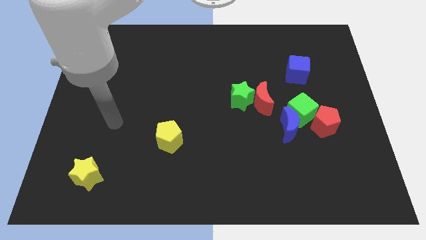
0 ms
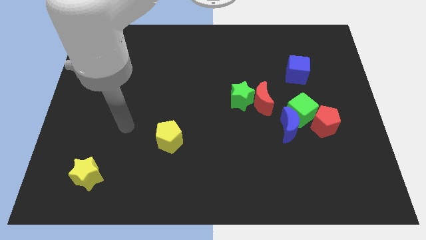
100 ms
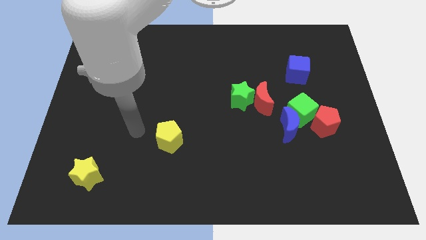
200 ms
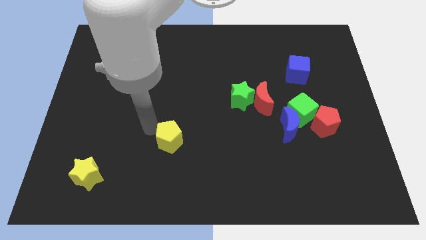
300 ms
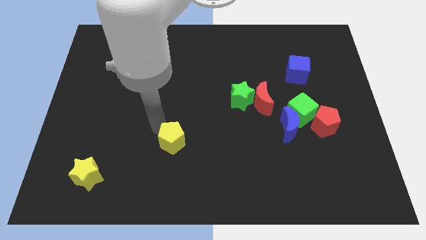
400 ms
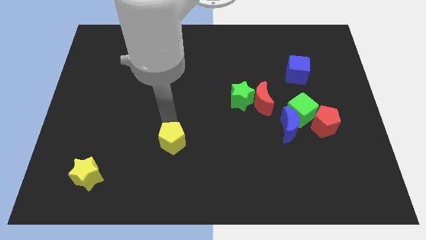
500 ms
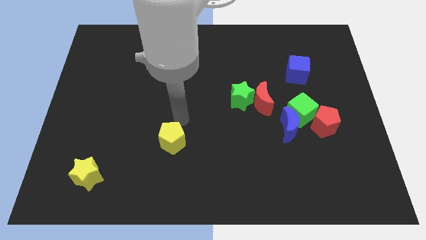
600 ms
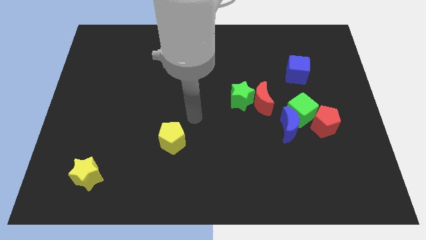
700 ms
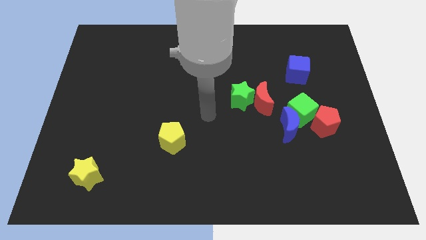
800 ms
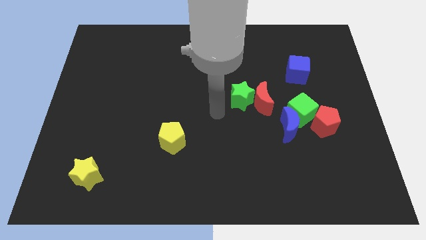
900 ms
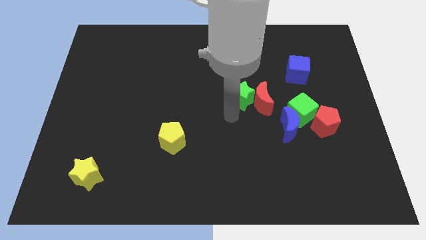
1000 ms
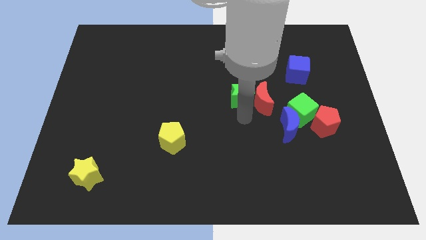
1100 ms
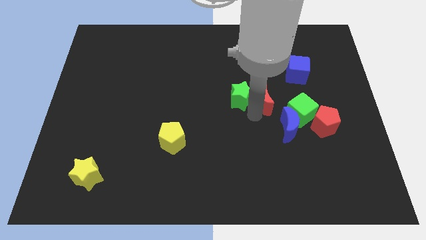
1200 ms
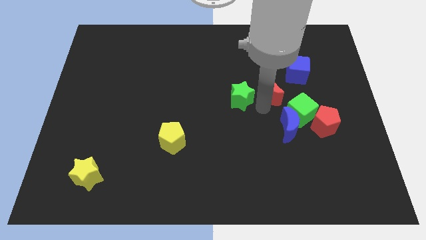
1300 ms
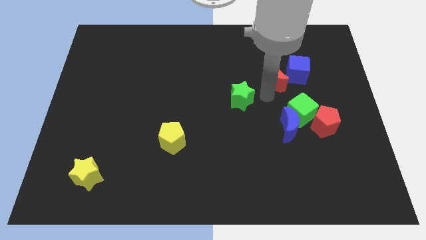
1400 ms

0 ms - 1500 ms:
pull the green star apart from the red moon

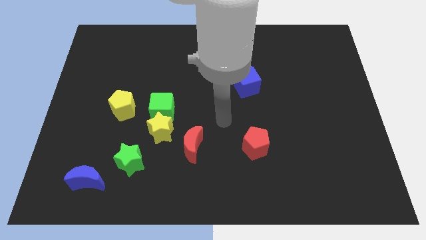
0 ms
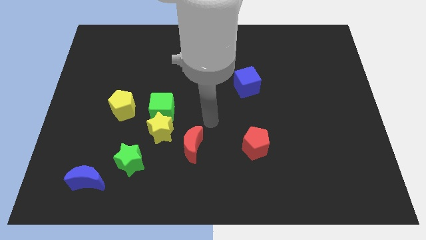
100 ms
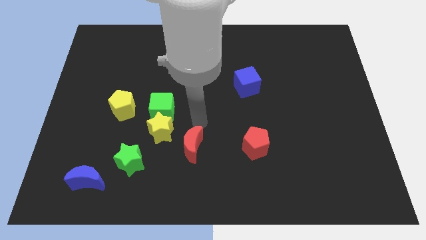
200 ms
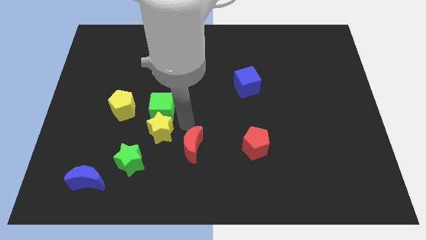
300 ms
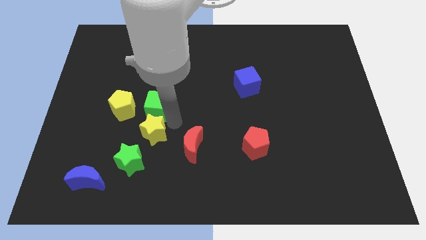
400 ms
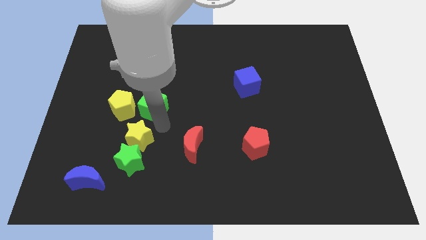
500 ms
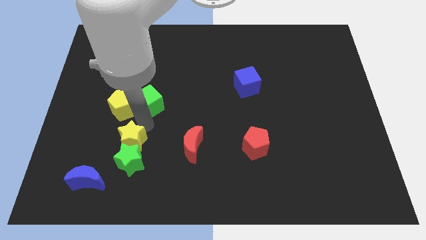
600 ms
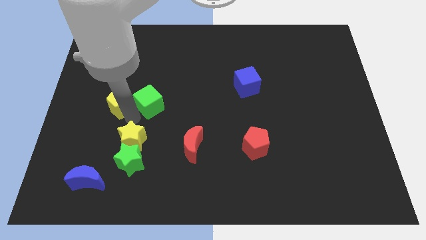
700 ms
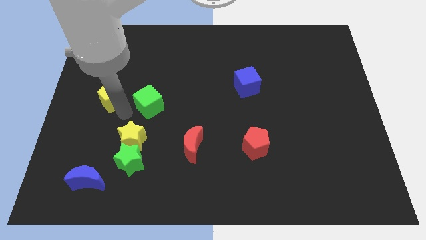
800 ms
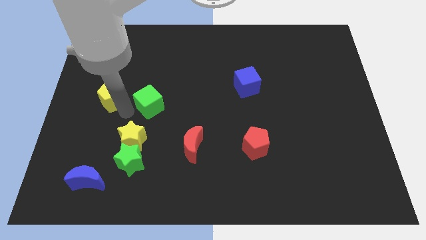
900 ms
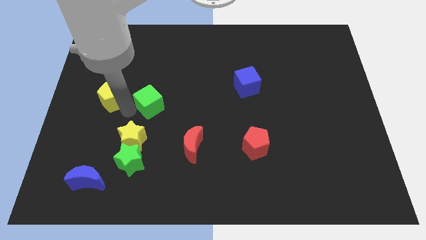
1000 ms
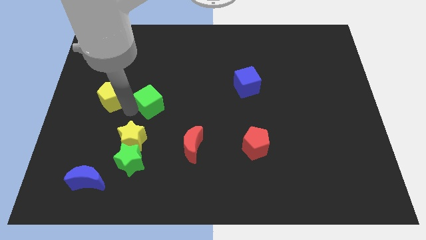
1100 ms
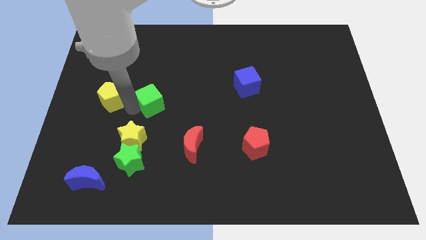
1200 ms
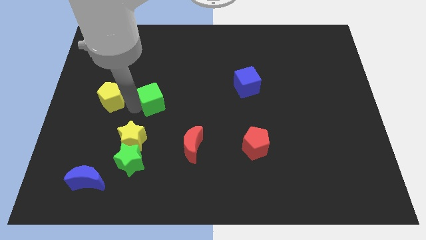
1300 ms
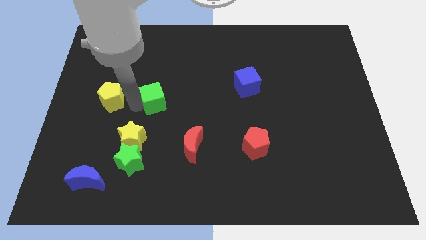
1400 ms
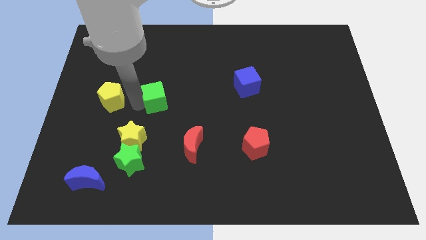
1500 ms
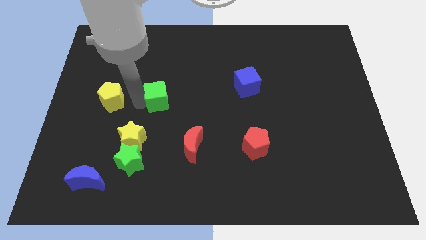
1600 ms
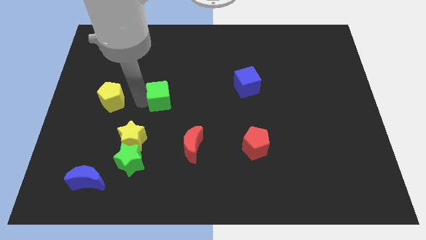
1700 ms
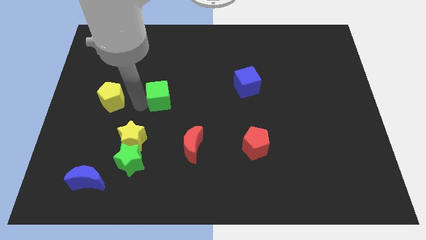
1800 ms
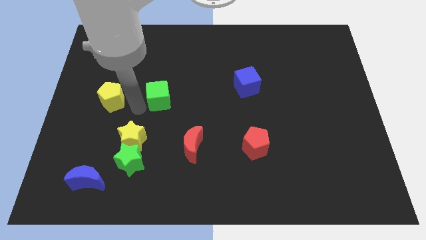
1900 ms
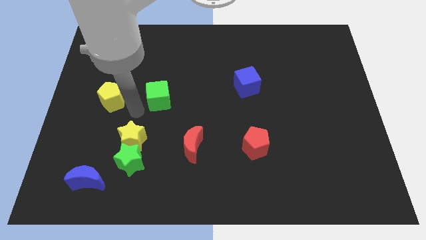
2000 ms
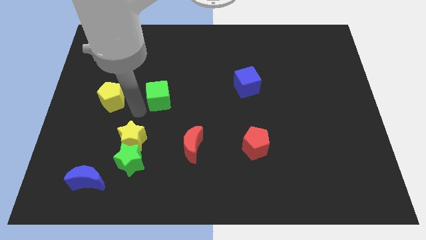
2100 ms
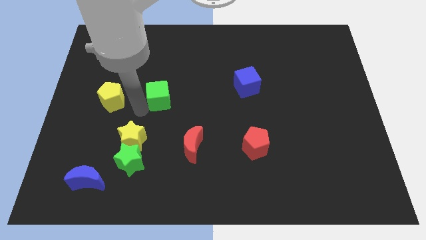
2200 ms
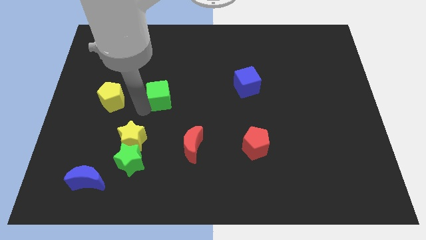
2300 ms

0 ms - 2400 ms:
move the green cube away from the yellow star and yellow pentagon

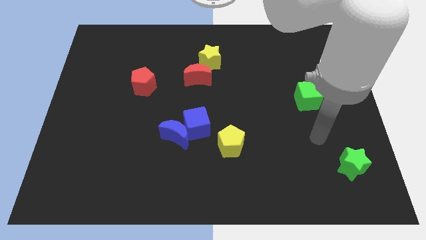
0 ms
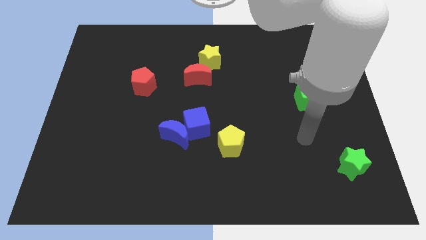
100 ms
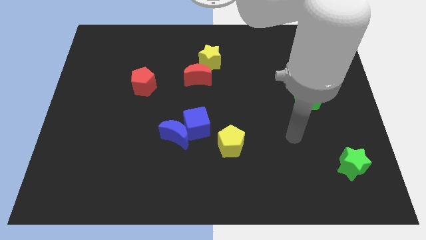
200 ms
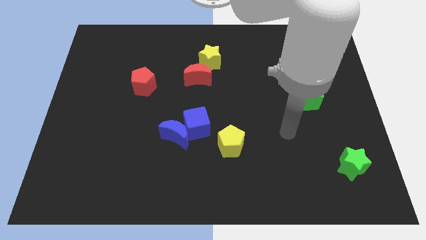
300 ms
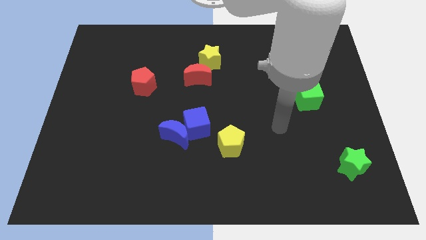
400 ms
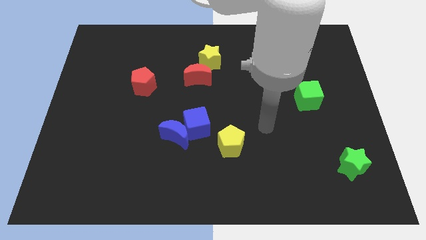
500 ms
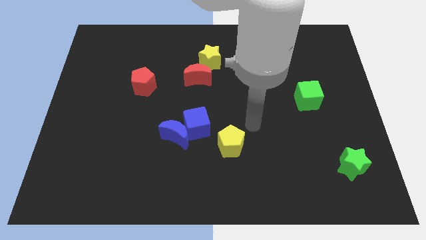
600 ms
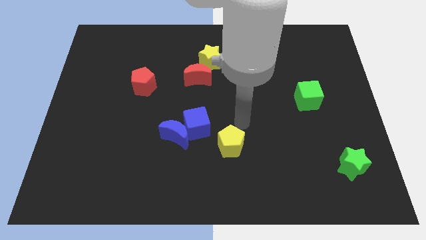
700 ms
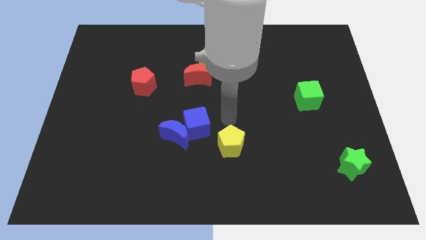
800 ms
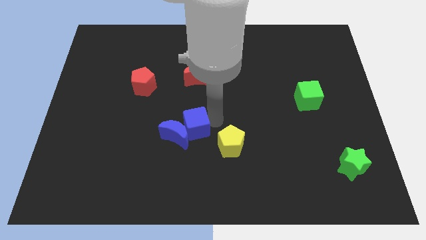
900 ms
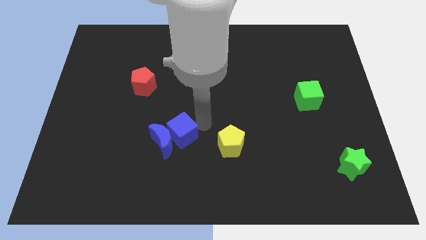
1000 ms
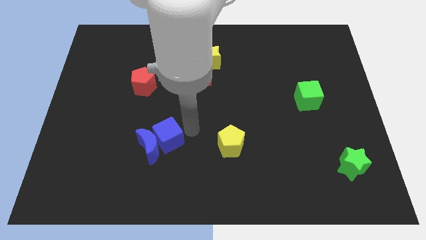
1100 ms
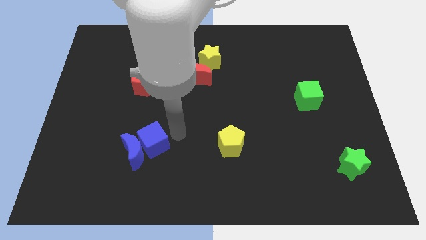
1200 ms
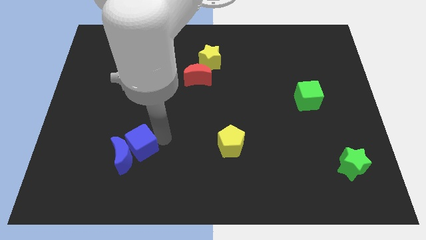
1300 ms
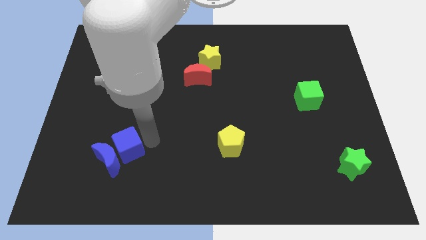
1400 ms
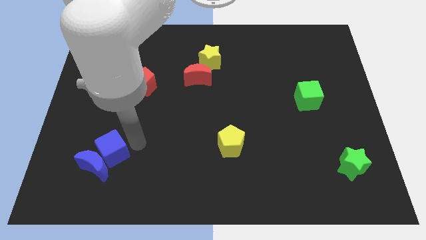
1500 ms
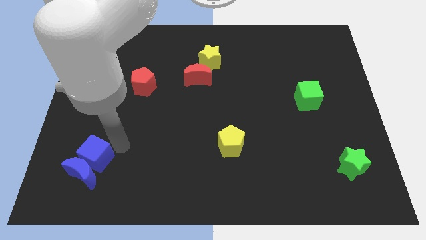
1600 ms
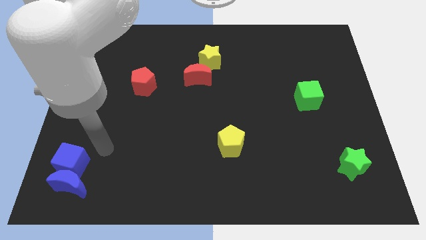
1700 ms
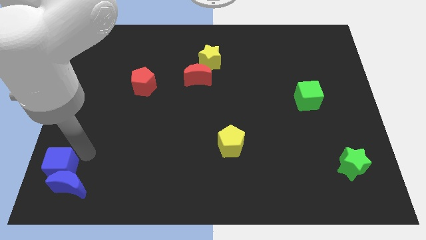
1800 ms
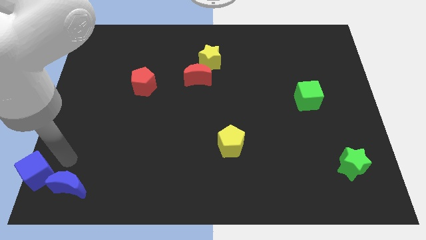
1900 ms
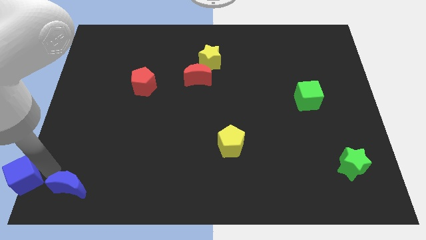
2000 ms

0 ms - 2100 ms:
separate the blue moon from the blue cube

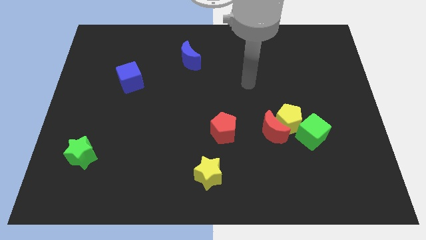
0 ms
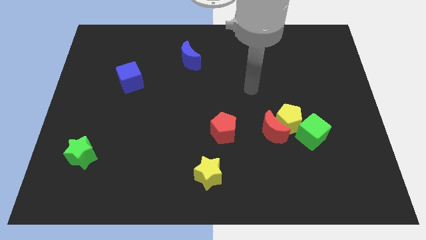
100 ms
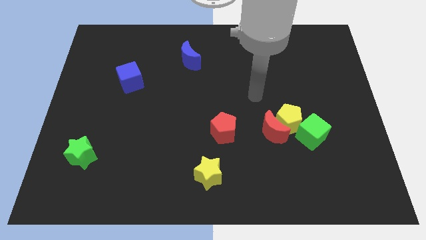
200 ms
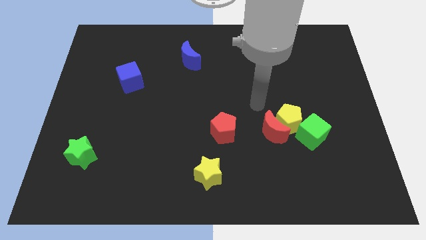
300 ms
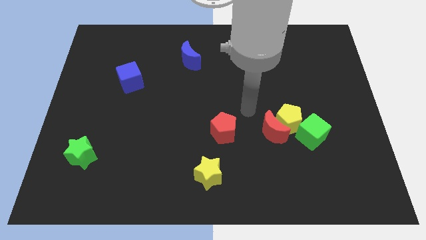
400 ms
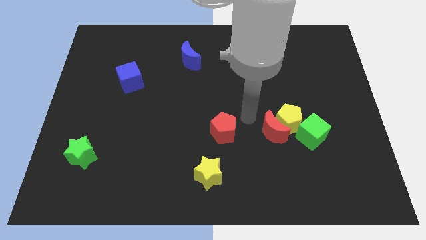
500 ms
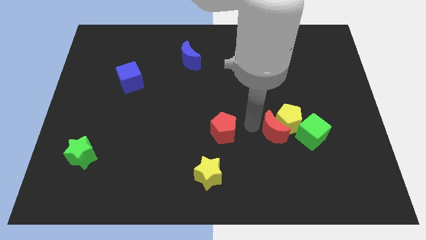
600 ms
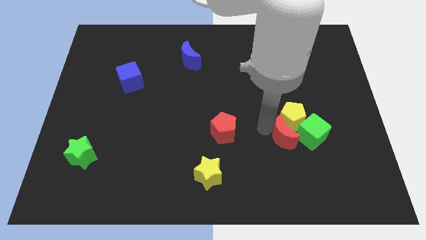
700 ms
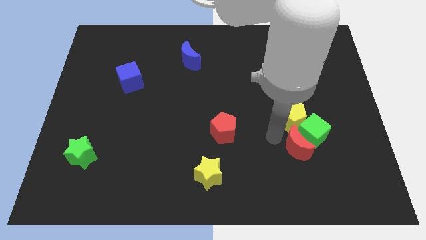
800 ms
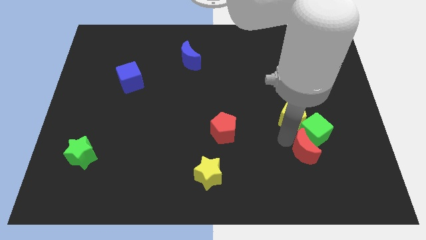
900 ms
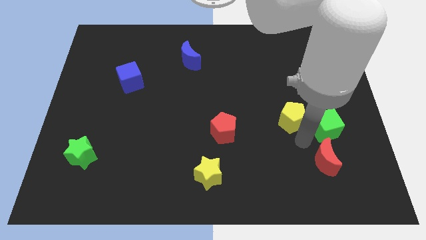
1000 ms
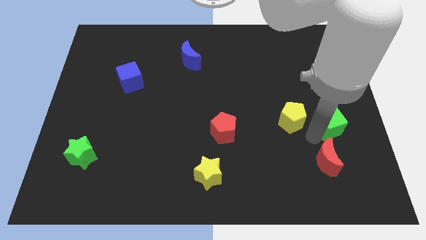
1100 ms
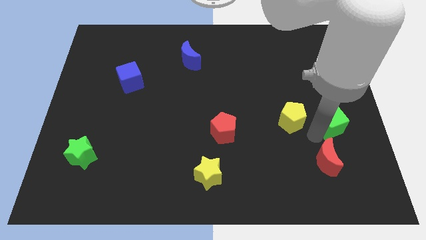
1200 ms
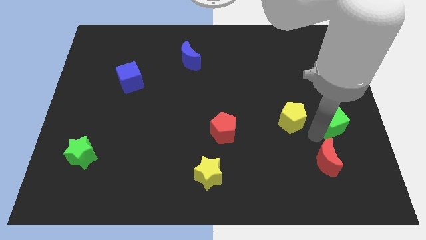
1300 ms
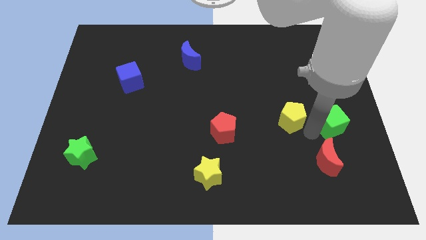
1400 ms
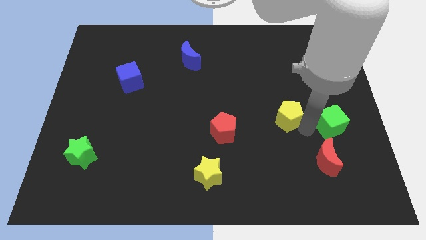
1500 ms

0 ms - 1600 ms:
pull the yellow pentagon apart from the red moon and green cube

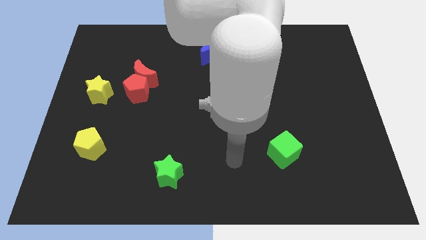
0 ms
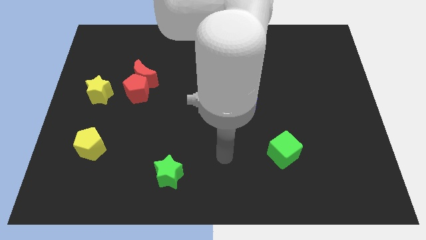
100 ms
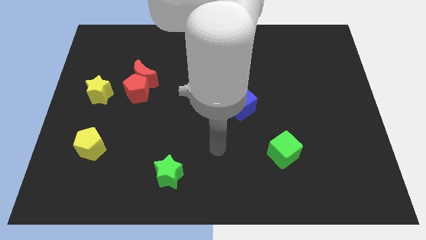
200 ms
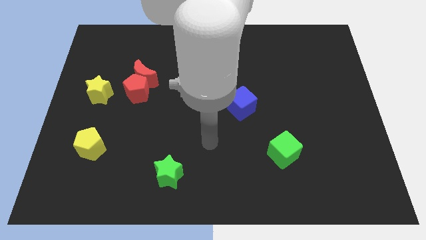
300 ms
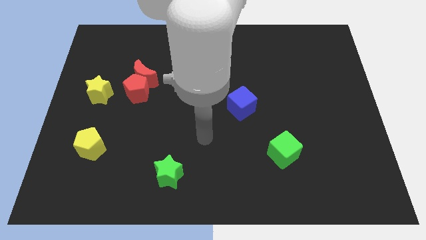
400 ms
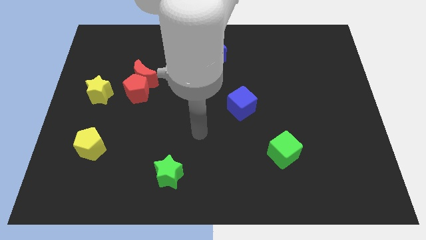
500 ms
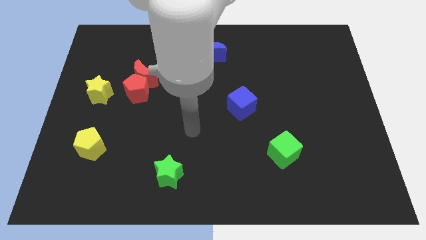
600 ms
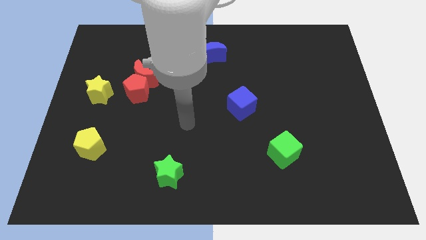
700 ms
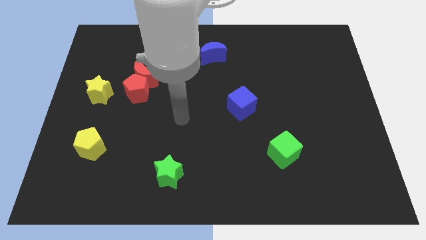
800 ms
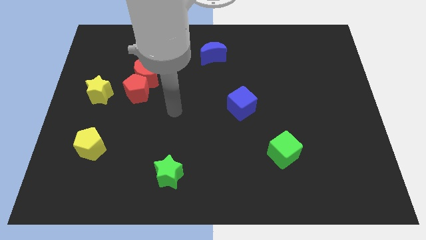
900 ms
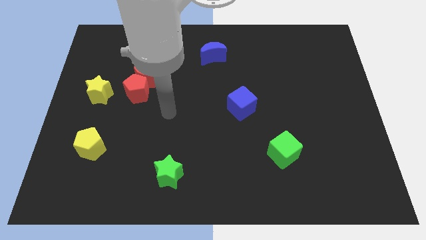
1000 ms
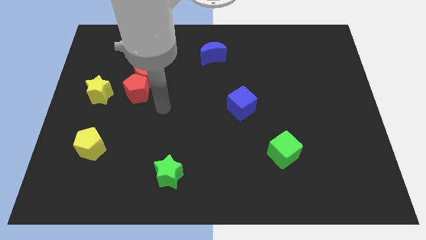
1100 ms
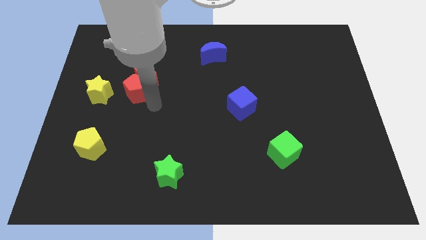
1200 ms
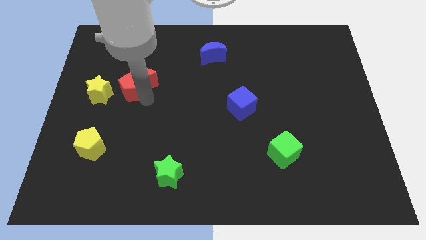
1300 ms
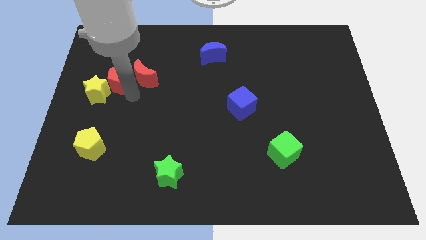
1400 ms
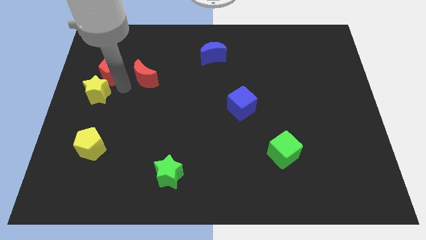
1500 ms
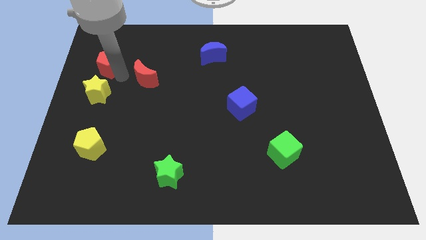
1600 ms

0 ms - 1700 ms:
move the red moon away from the red pentagon

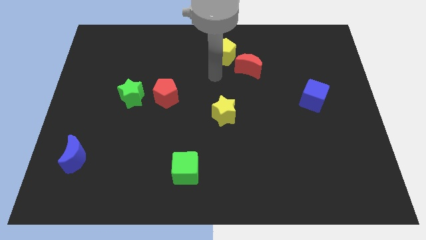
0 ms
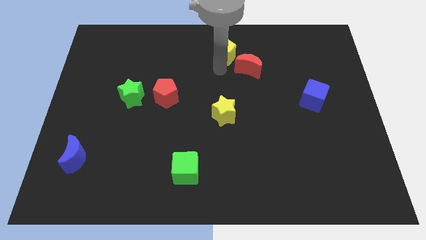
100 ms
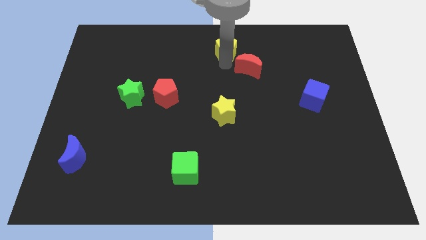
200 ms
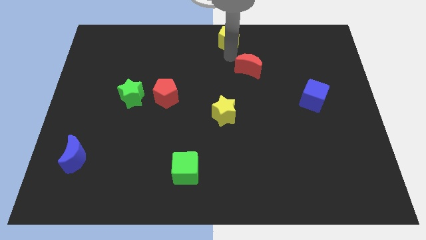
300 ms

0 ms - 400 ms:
separate the red moon from the yellow pentagon
